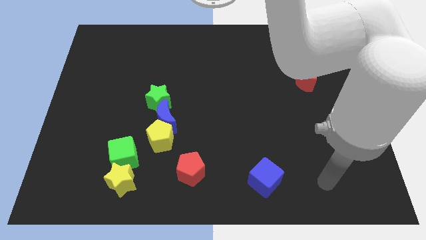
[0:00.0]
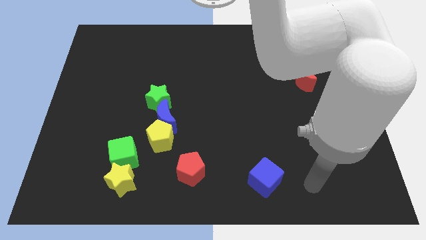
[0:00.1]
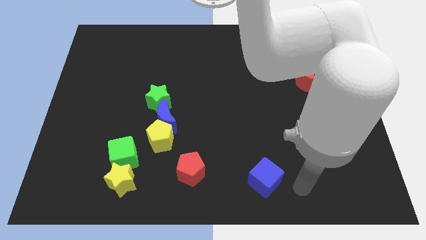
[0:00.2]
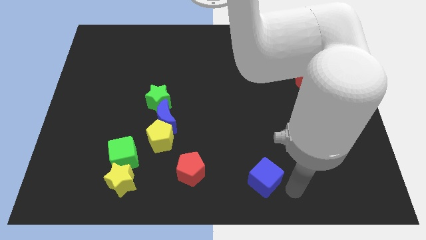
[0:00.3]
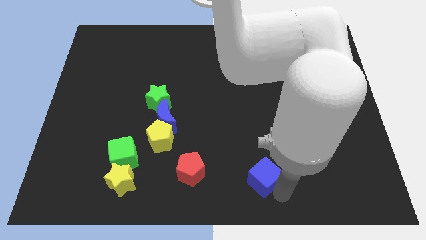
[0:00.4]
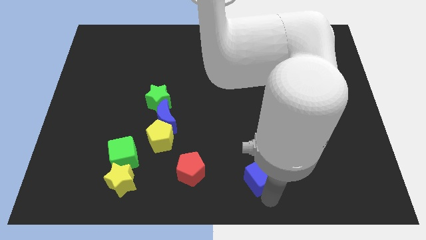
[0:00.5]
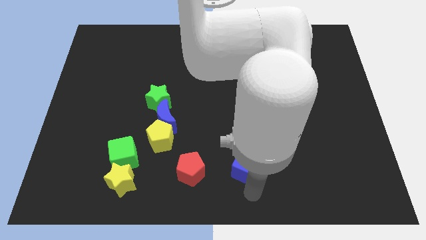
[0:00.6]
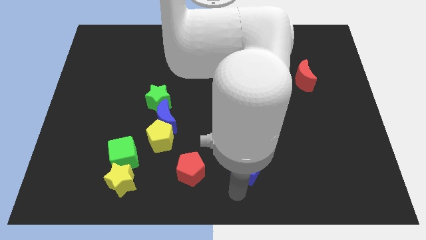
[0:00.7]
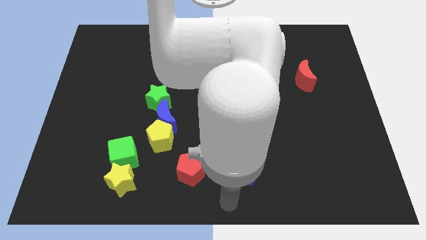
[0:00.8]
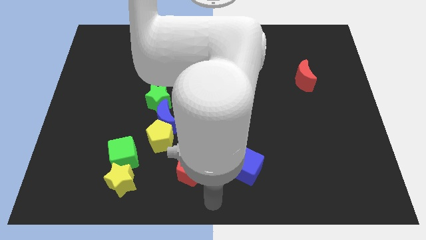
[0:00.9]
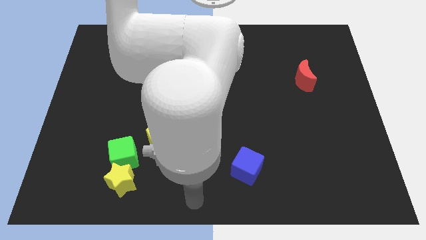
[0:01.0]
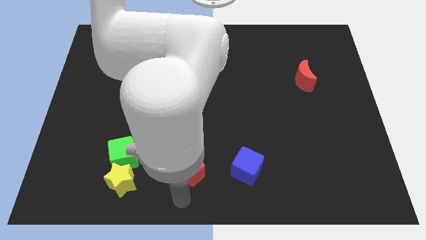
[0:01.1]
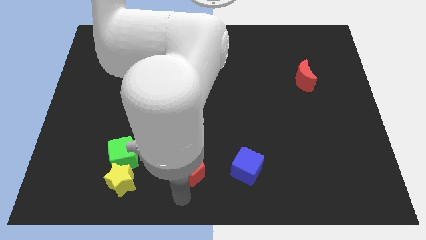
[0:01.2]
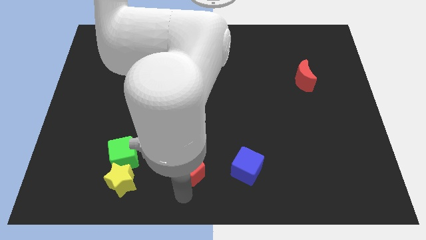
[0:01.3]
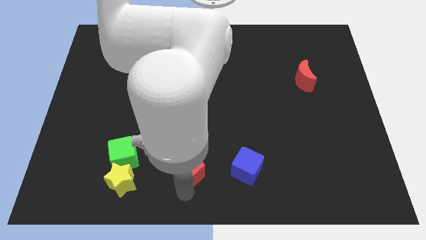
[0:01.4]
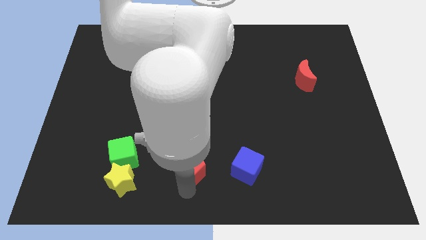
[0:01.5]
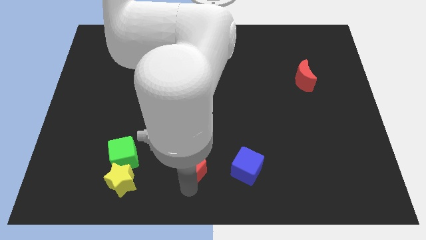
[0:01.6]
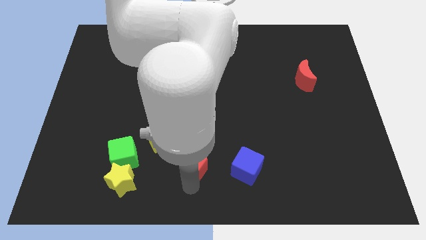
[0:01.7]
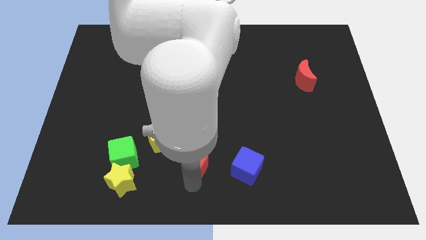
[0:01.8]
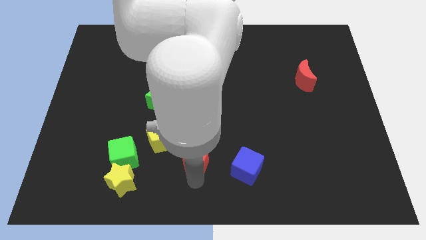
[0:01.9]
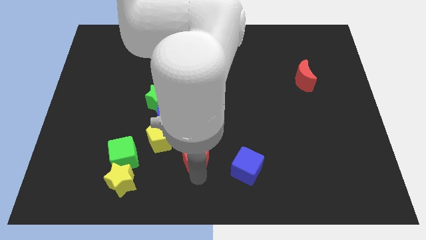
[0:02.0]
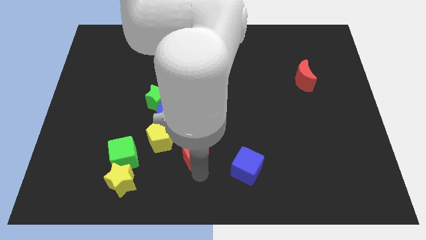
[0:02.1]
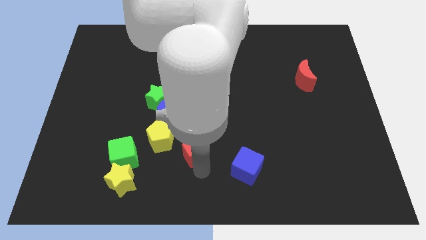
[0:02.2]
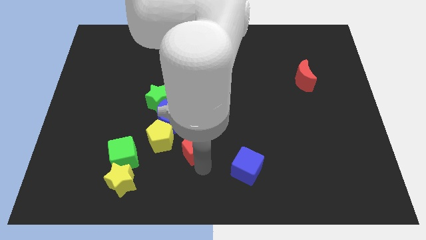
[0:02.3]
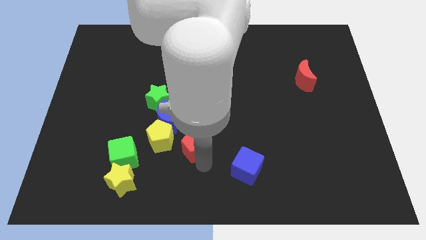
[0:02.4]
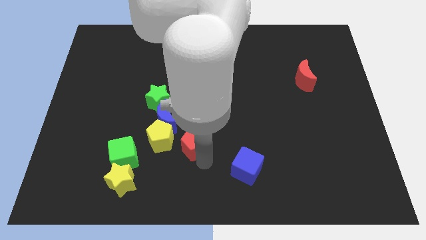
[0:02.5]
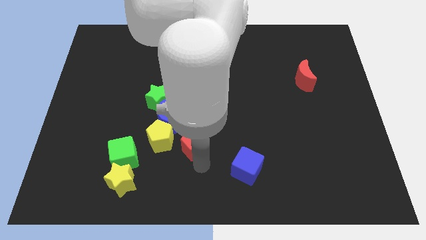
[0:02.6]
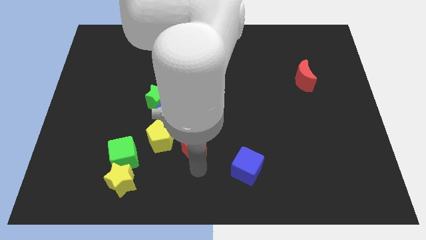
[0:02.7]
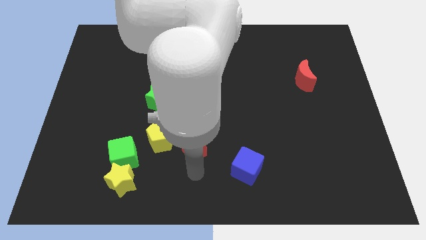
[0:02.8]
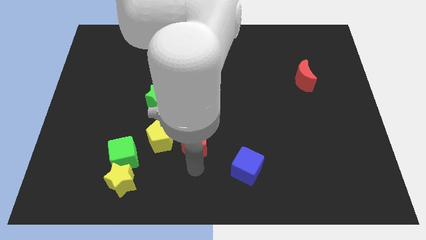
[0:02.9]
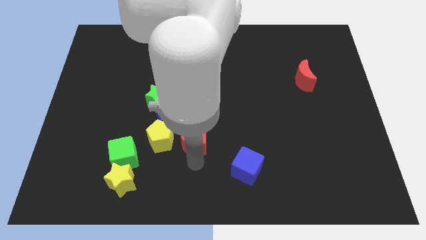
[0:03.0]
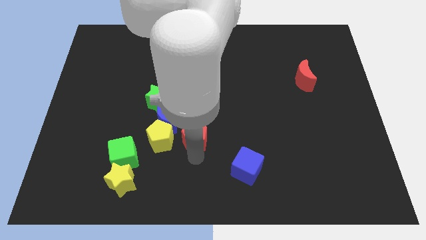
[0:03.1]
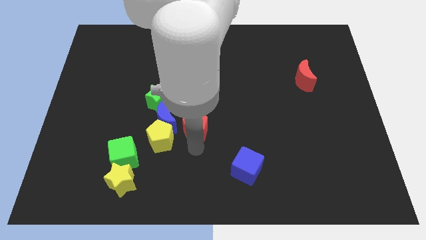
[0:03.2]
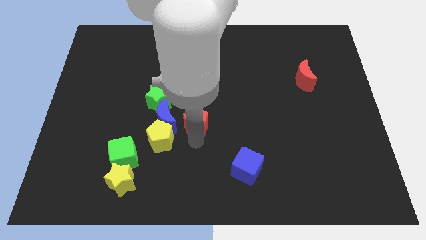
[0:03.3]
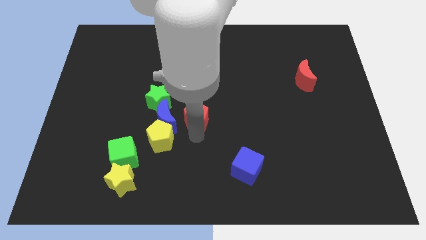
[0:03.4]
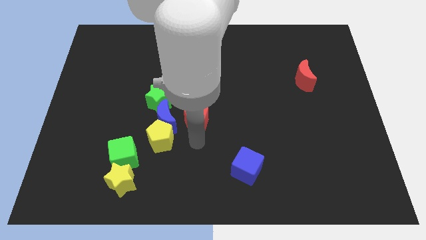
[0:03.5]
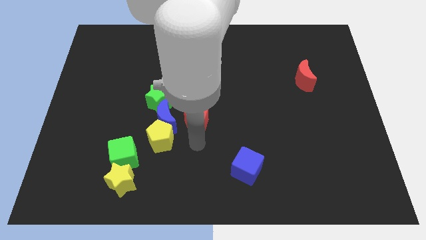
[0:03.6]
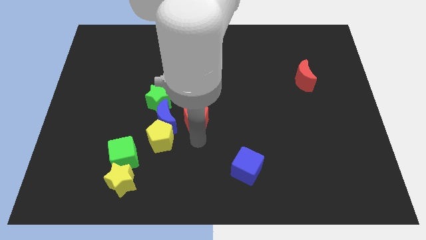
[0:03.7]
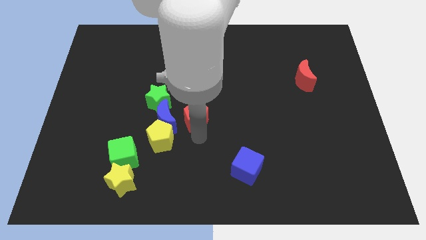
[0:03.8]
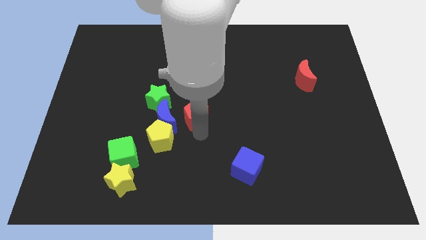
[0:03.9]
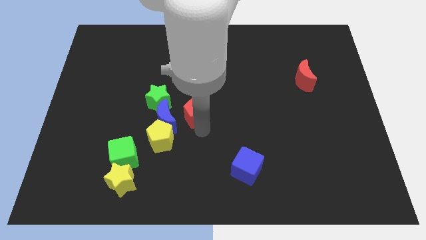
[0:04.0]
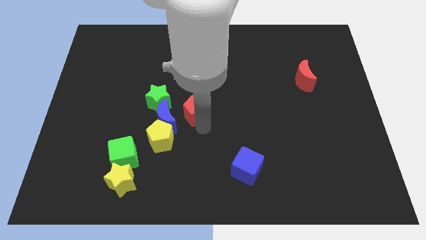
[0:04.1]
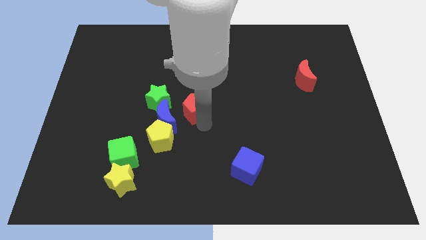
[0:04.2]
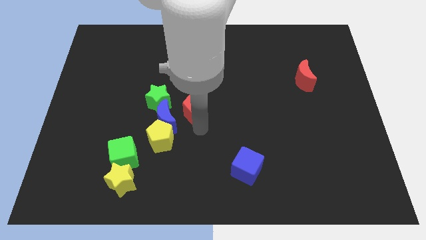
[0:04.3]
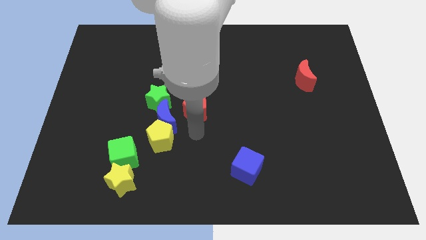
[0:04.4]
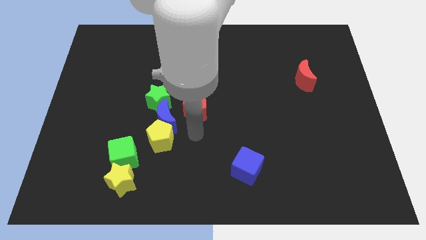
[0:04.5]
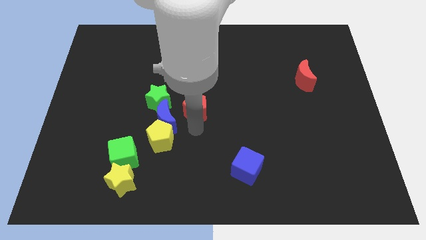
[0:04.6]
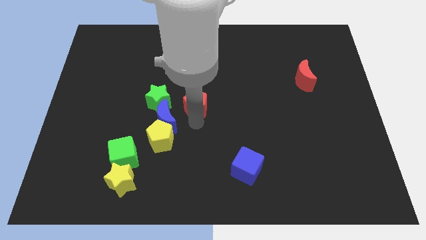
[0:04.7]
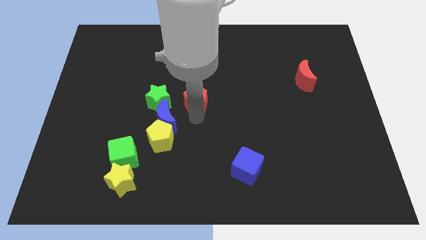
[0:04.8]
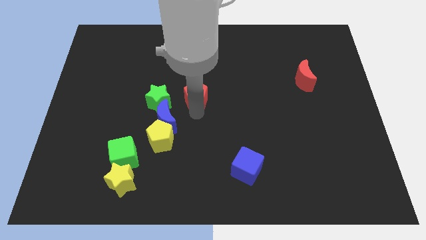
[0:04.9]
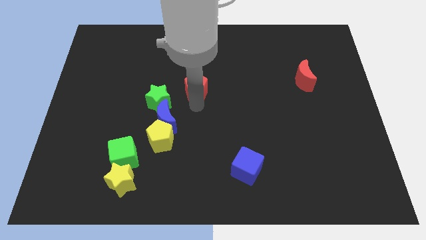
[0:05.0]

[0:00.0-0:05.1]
move the red pentagon upwards

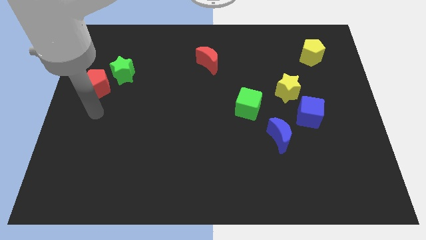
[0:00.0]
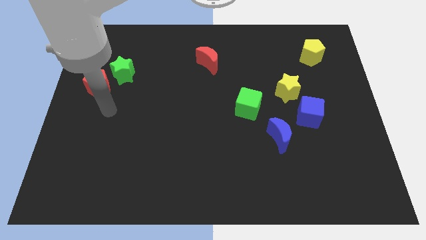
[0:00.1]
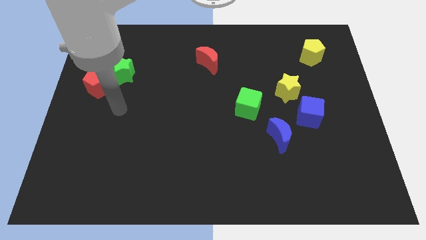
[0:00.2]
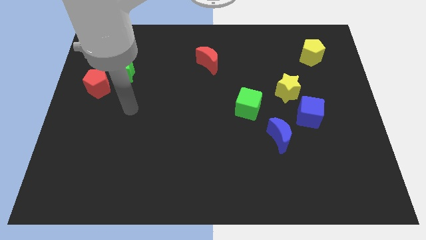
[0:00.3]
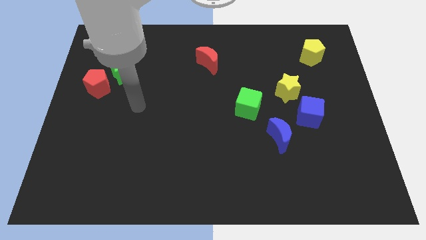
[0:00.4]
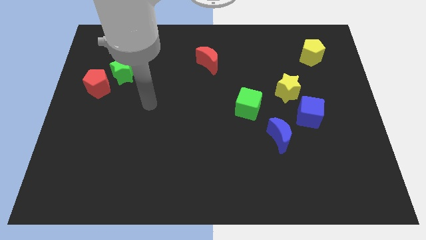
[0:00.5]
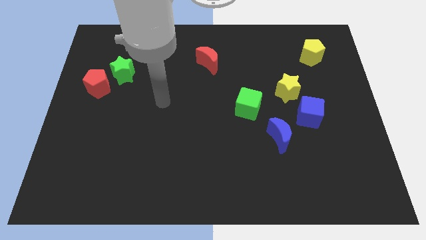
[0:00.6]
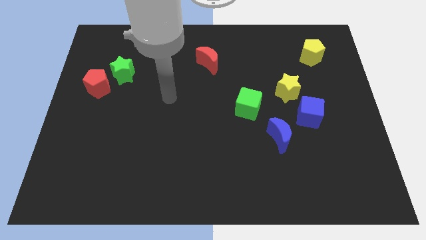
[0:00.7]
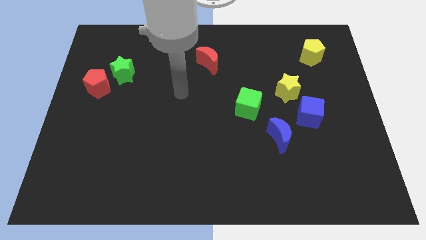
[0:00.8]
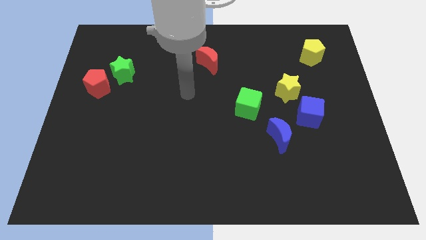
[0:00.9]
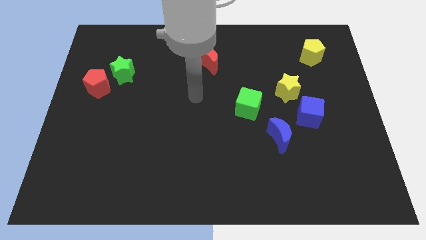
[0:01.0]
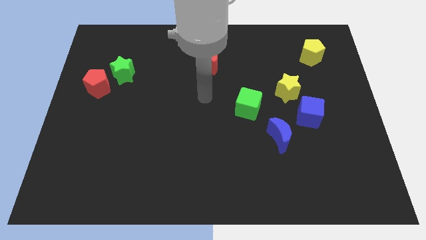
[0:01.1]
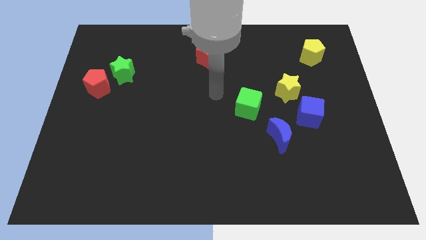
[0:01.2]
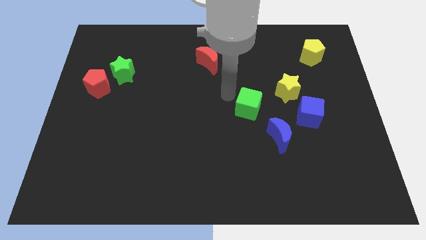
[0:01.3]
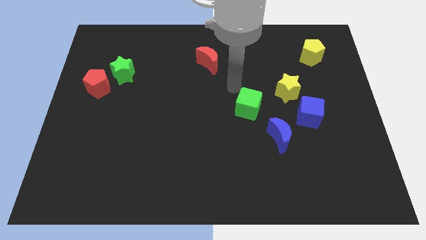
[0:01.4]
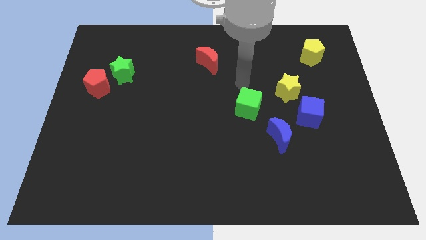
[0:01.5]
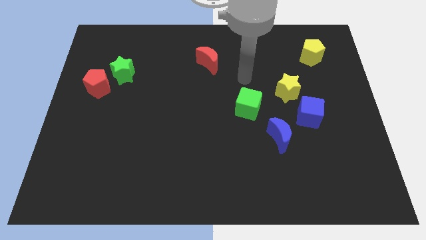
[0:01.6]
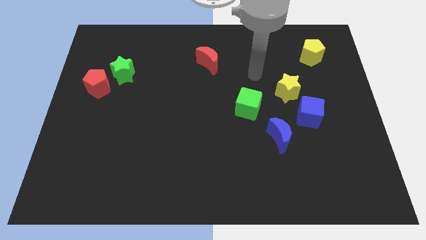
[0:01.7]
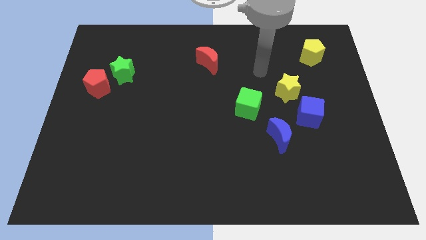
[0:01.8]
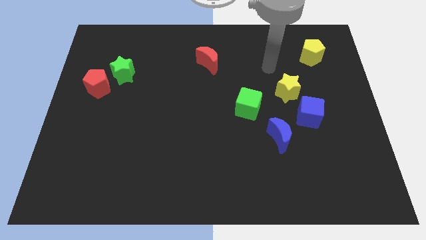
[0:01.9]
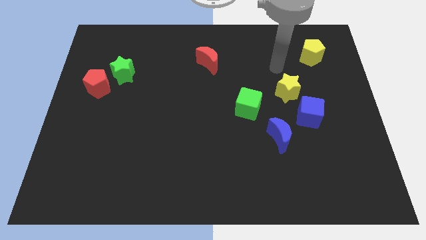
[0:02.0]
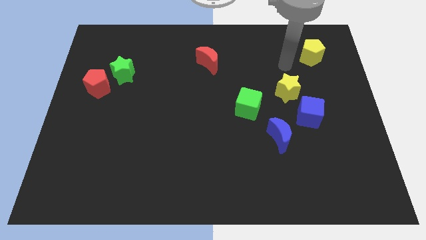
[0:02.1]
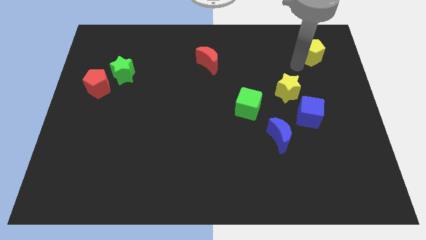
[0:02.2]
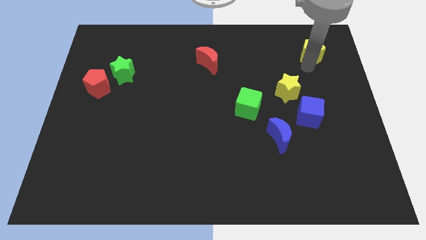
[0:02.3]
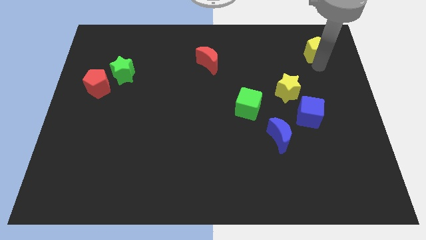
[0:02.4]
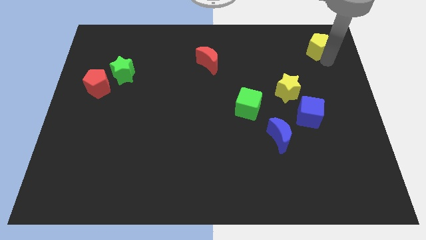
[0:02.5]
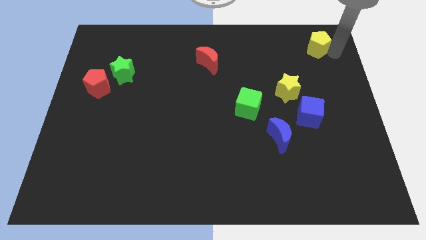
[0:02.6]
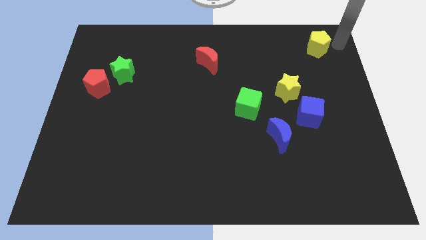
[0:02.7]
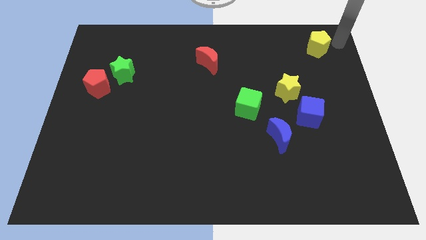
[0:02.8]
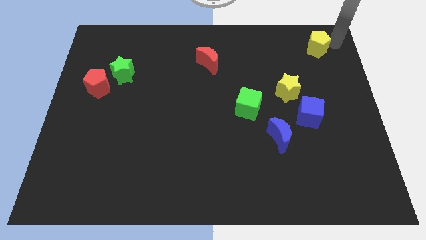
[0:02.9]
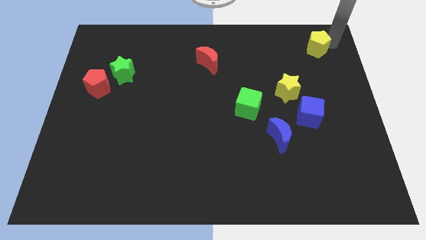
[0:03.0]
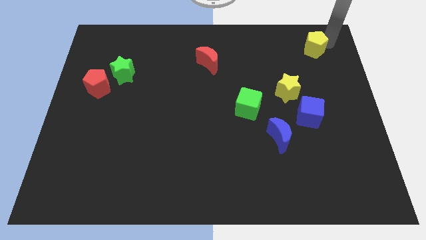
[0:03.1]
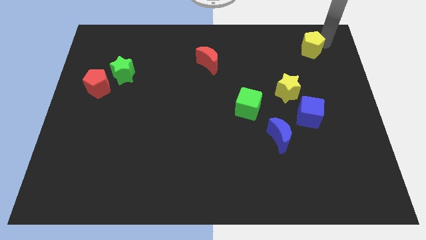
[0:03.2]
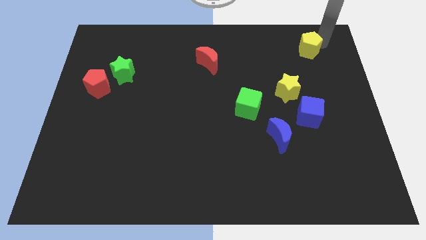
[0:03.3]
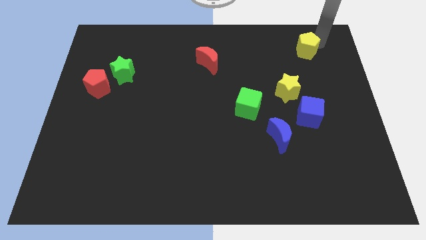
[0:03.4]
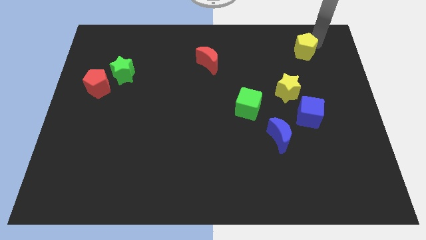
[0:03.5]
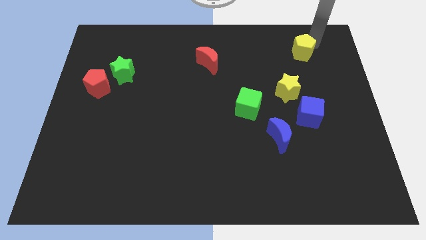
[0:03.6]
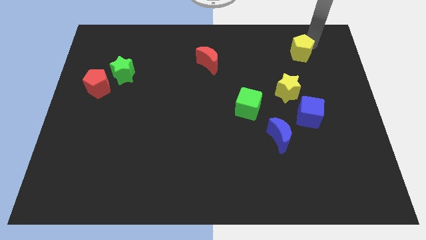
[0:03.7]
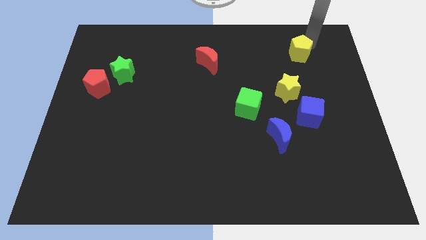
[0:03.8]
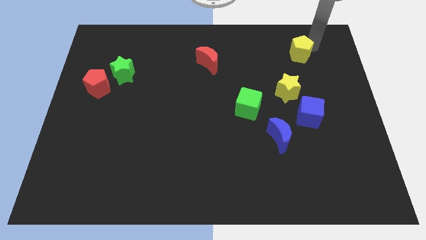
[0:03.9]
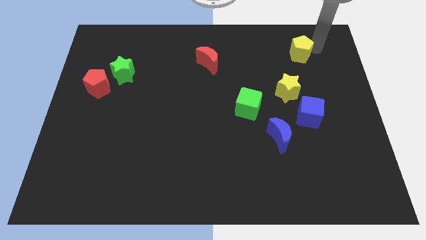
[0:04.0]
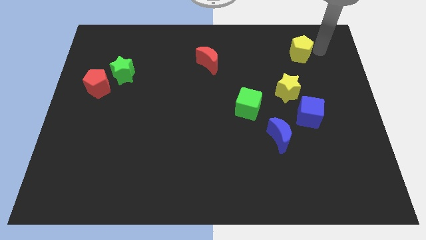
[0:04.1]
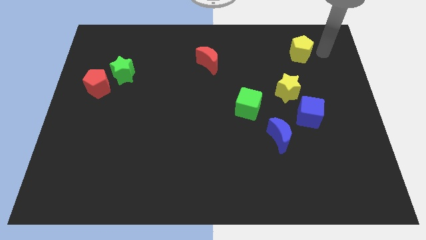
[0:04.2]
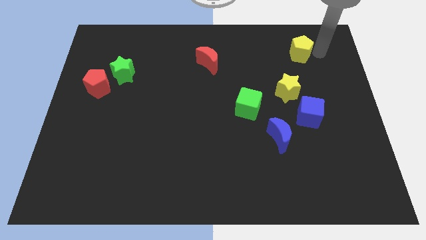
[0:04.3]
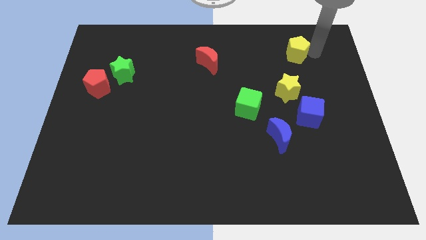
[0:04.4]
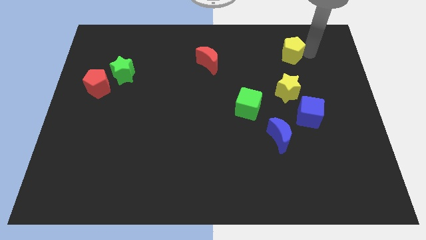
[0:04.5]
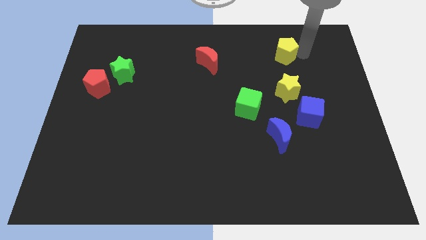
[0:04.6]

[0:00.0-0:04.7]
move the yellow pentagon slightly to the left
